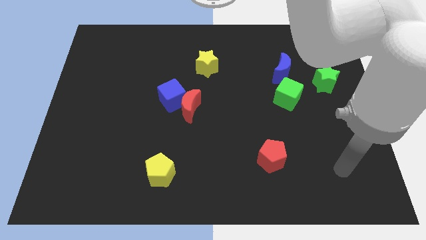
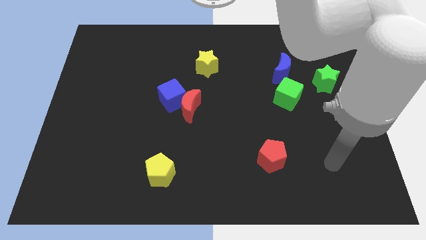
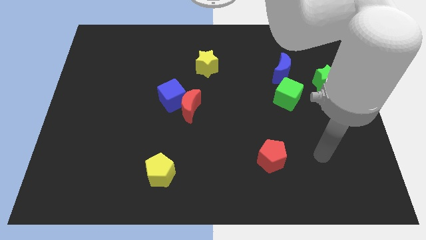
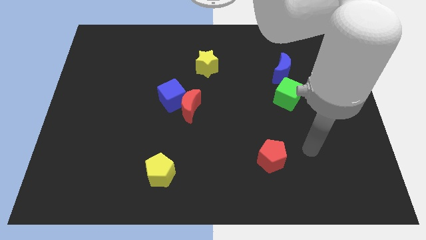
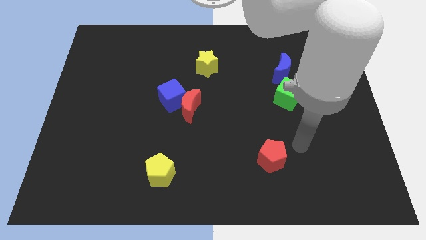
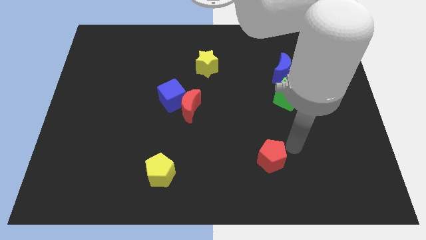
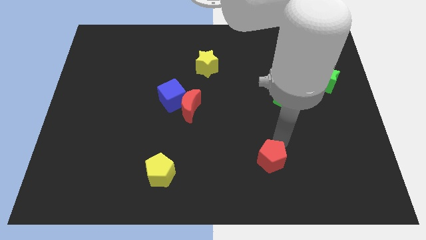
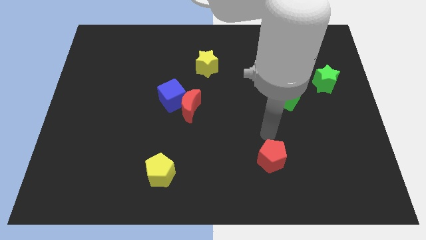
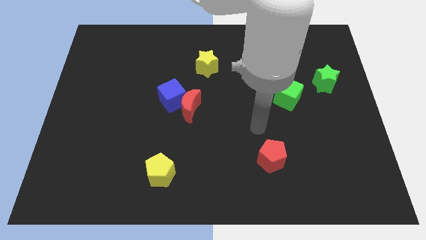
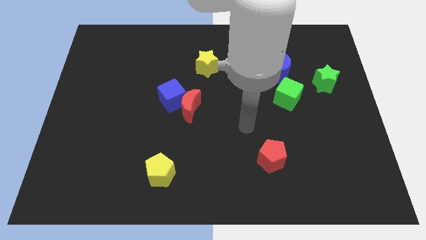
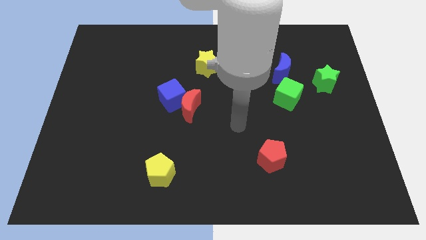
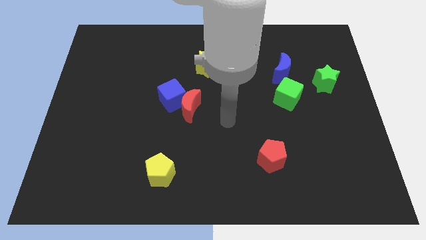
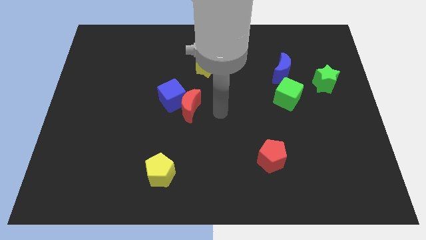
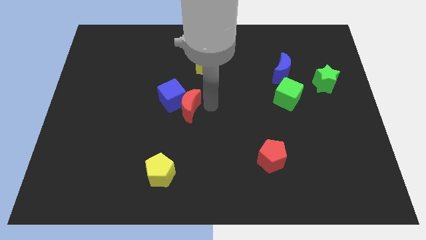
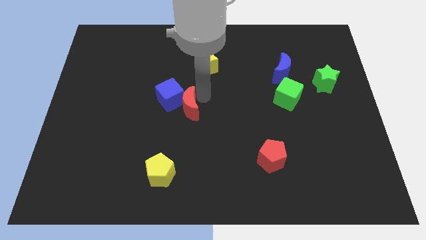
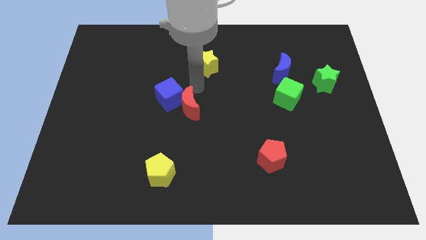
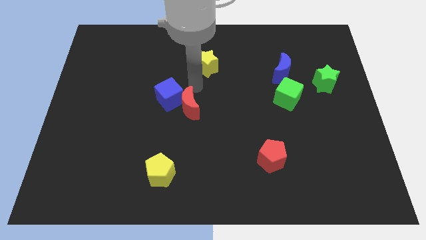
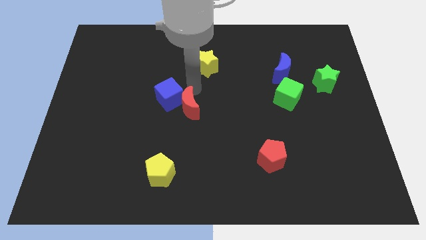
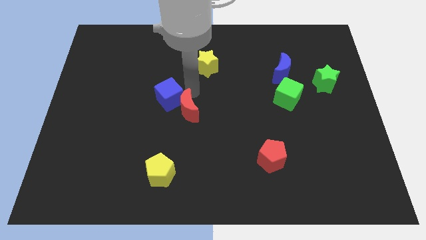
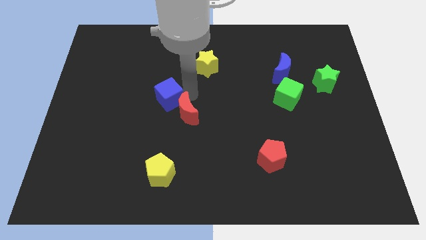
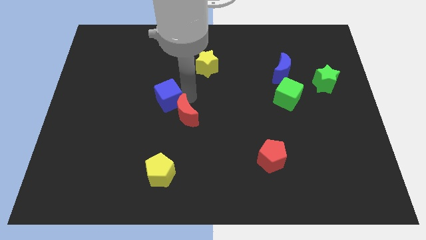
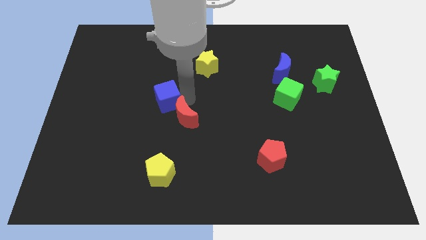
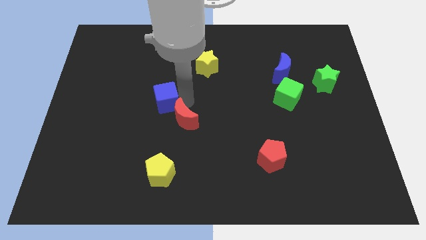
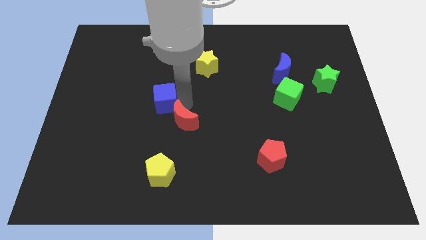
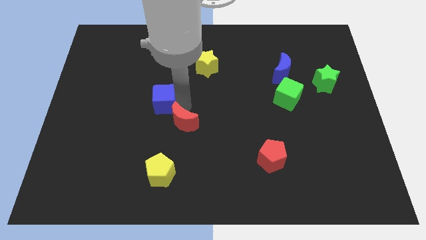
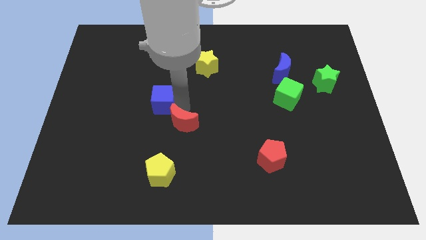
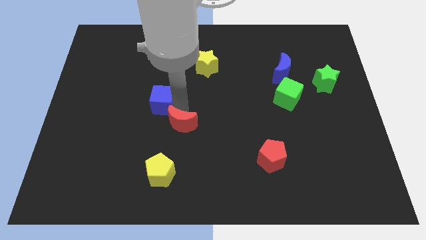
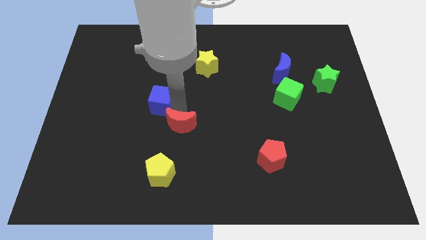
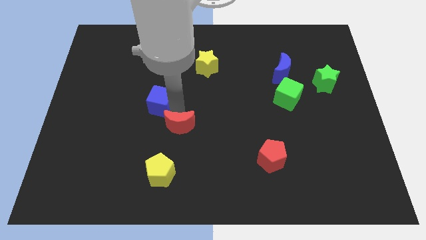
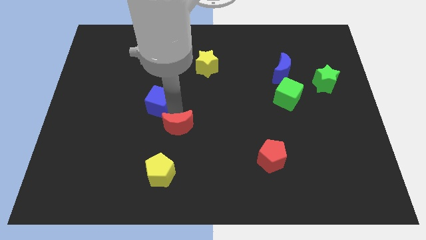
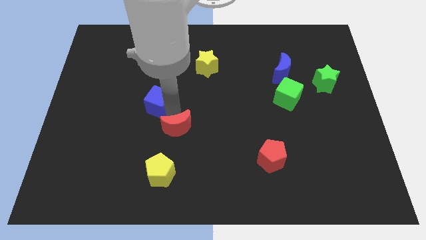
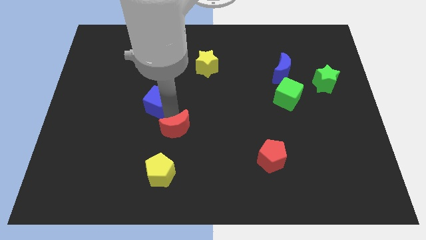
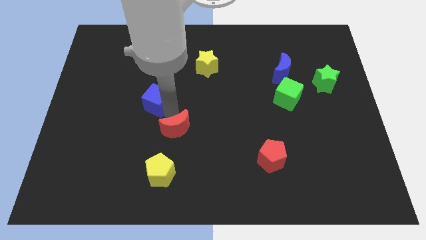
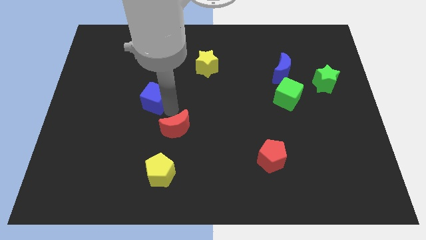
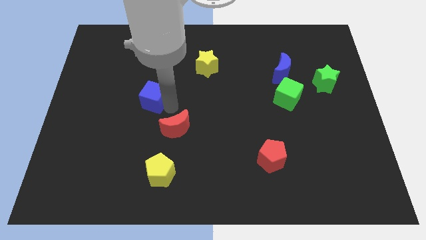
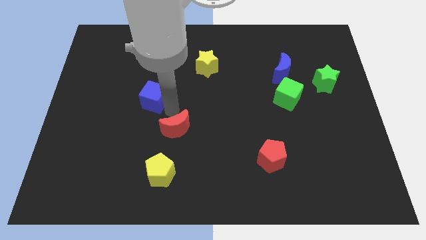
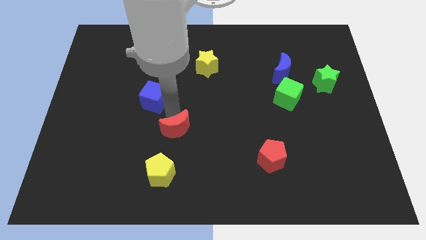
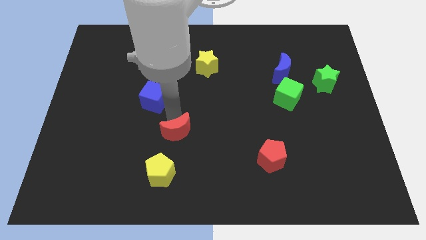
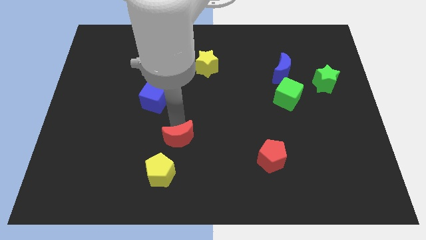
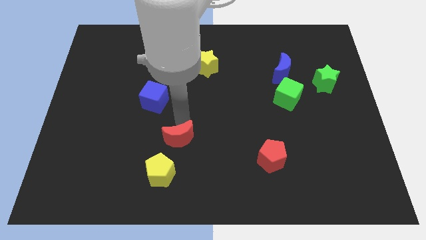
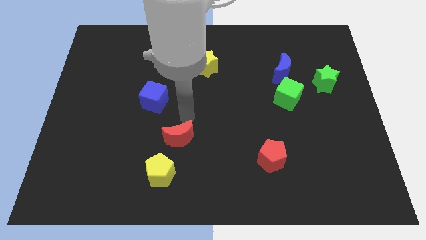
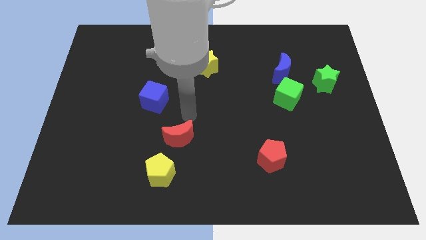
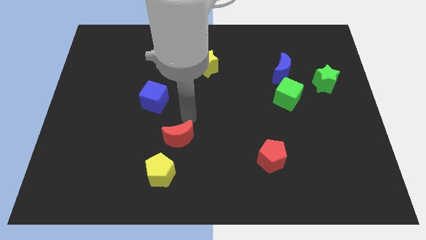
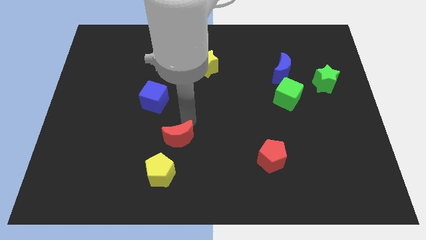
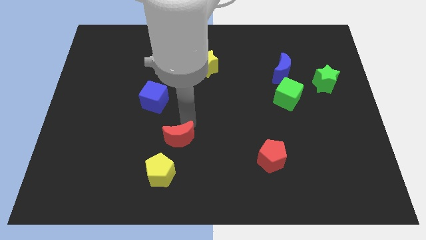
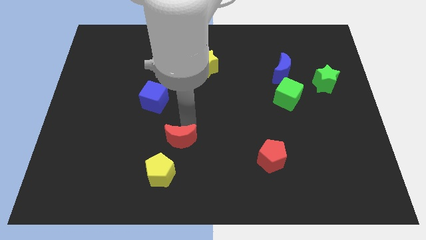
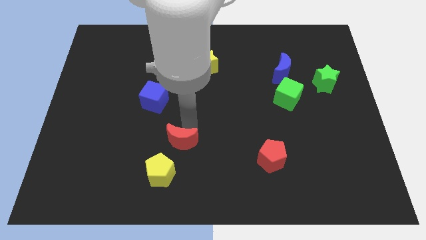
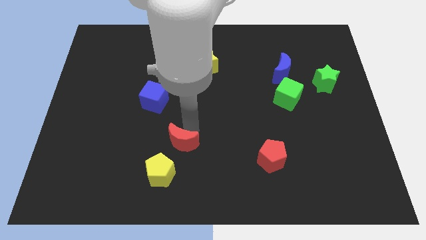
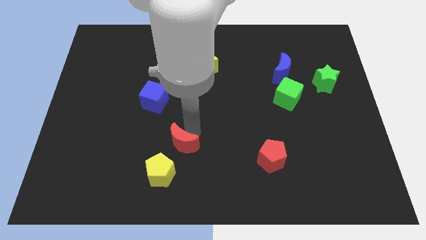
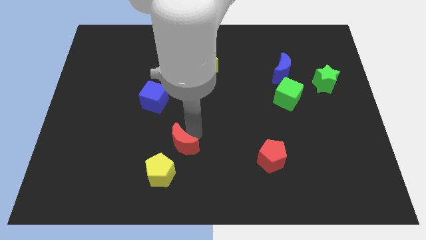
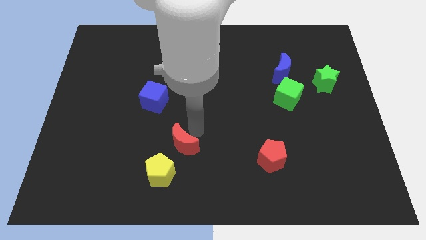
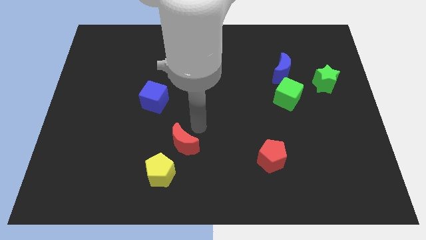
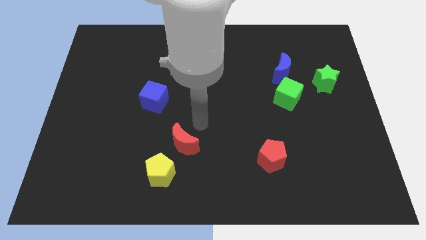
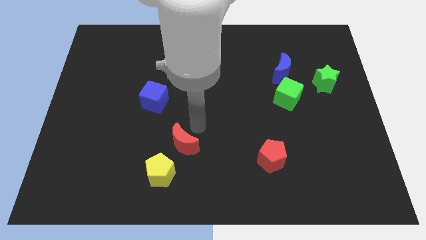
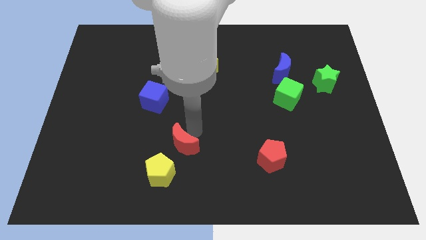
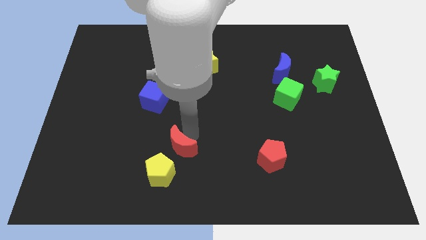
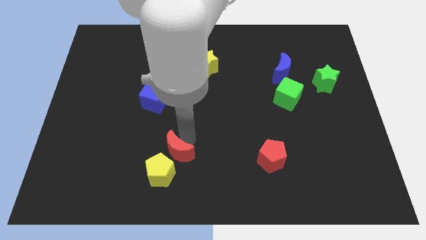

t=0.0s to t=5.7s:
move the red moon next to the yellow pentagon

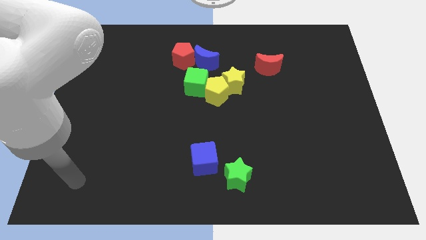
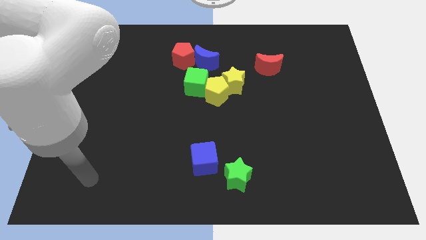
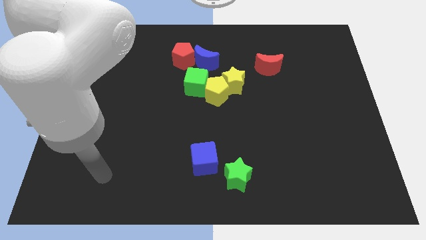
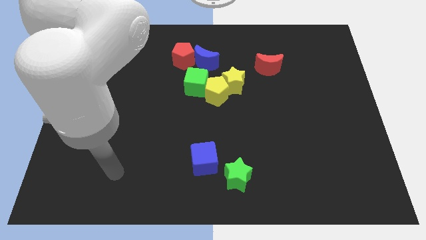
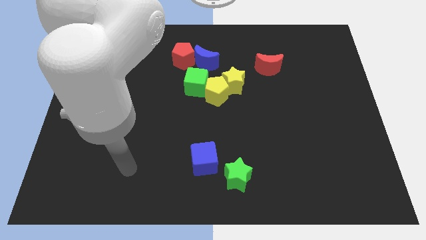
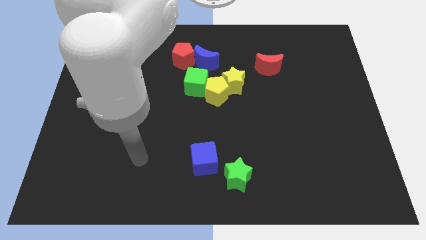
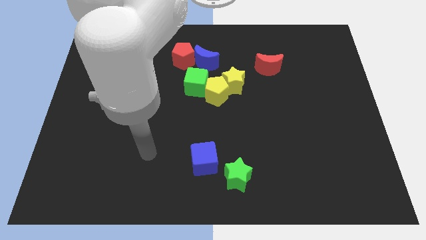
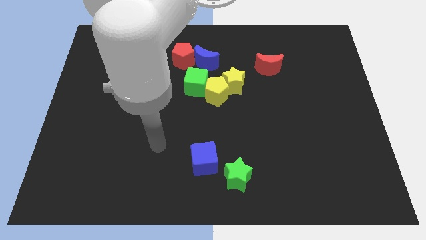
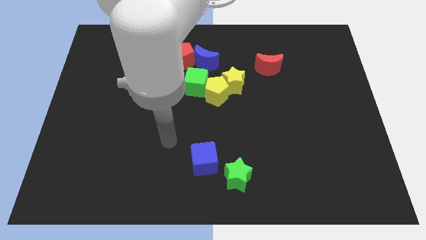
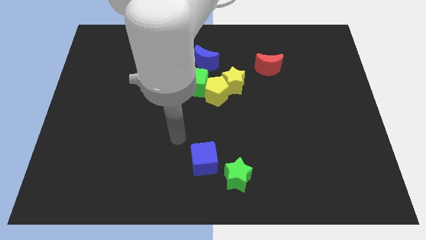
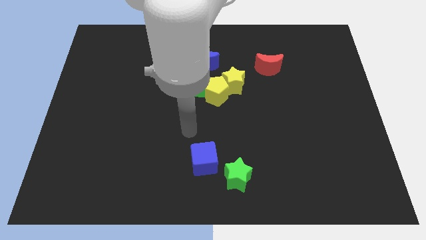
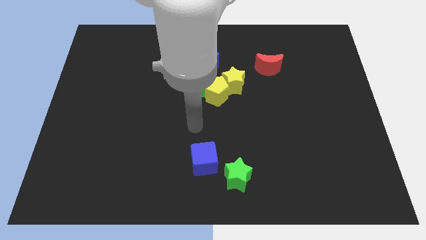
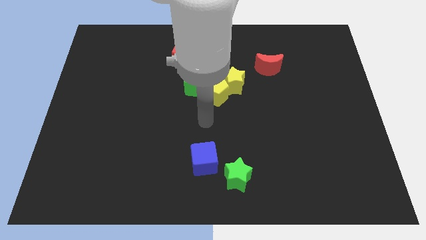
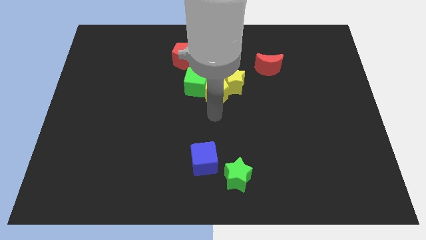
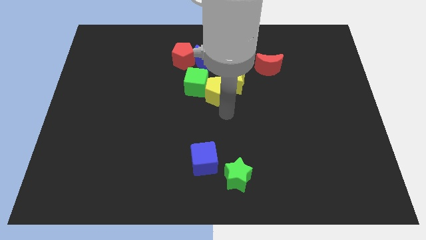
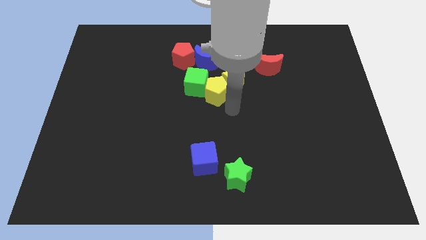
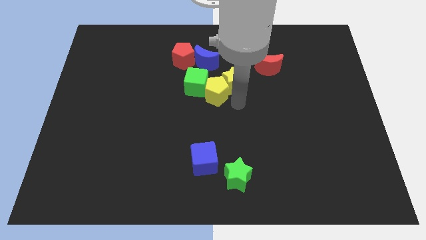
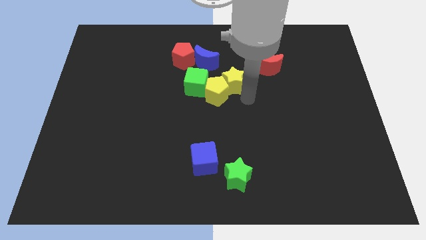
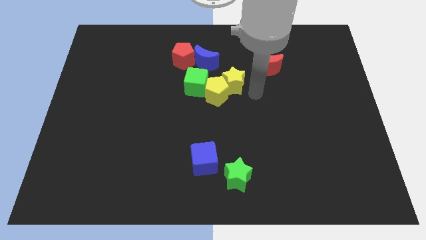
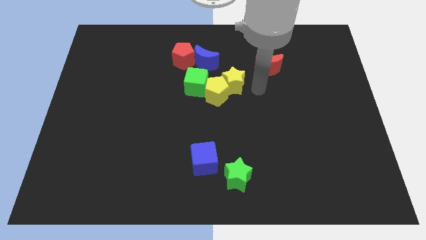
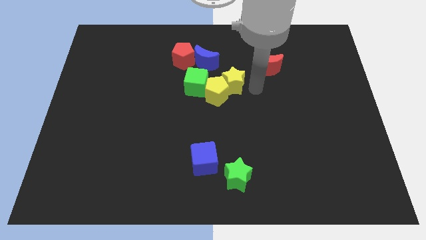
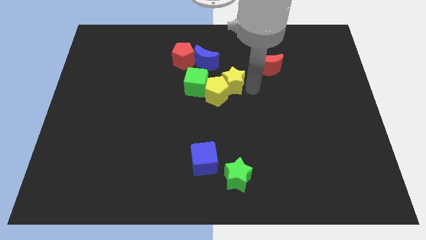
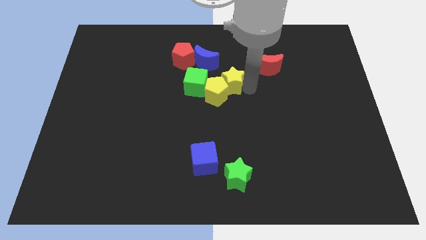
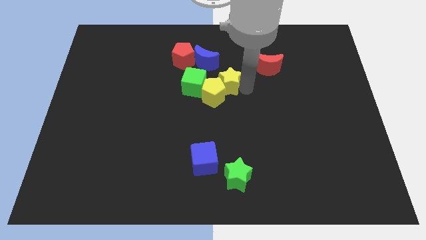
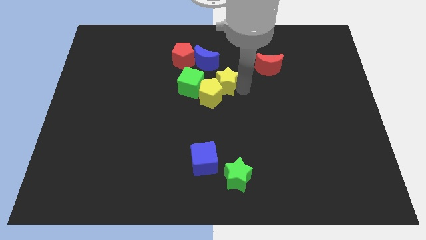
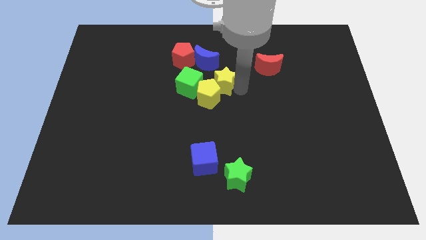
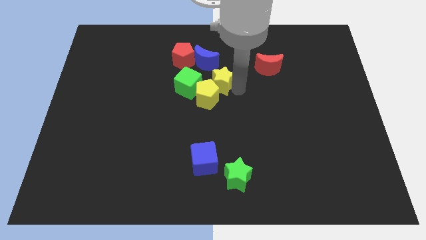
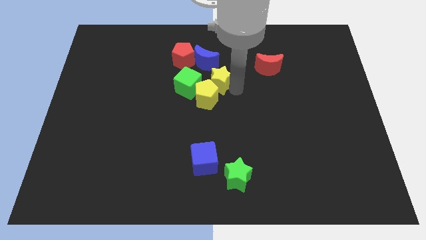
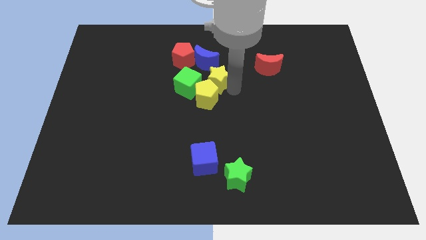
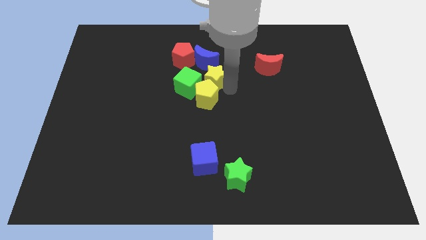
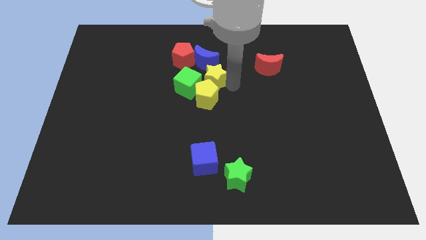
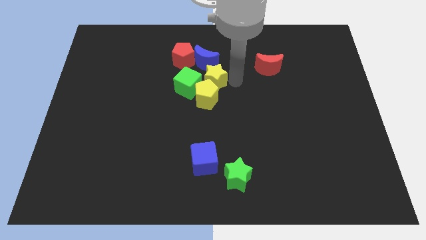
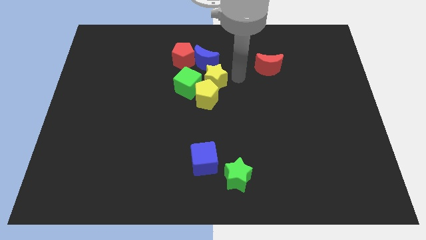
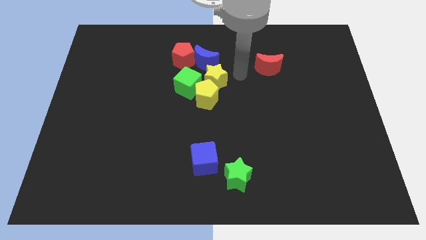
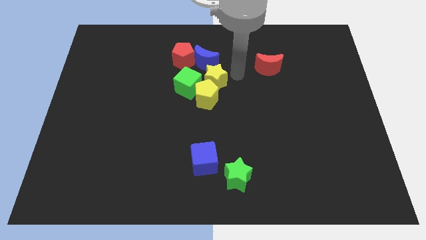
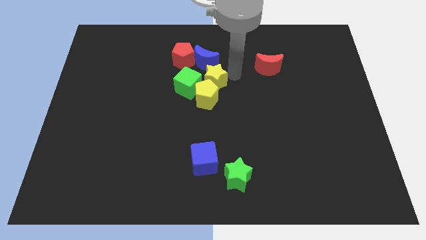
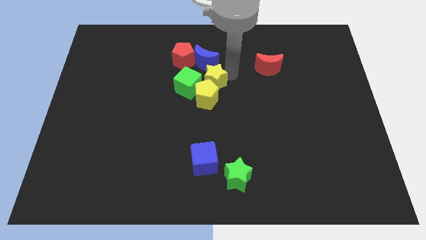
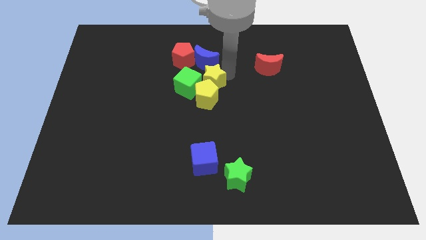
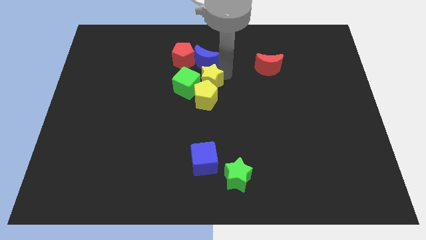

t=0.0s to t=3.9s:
slide the yellow star to the green cube
